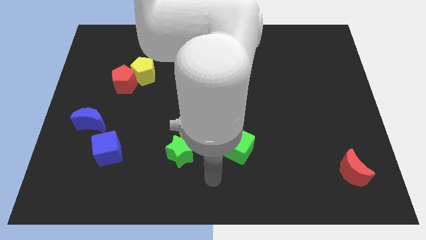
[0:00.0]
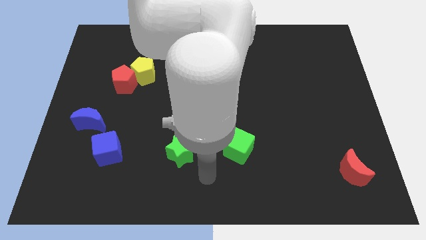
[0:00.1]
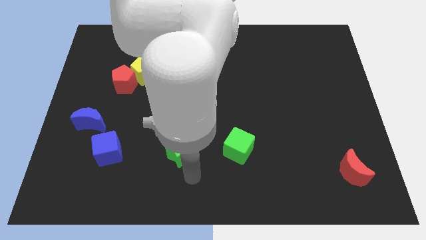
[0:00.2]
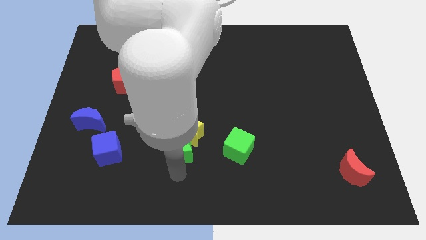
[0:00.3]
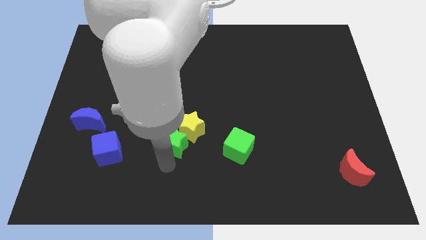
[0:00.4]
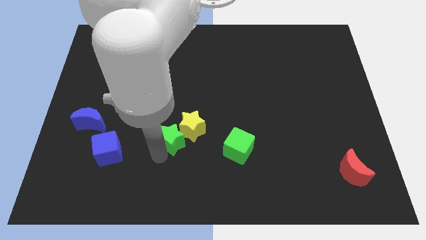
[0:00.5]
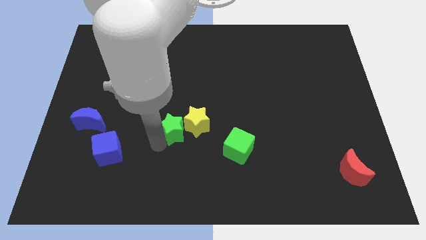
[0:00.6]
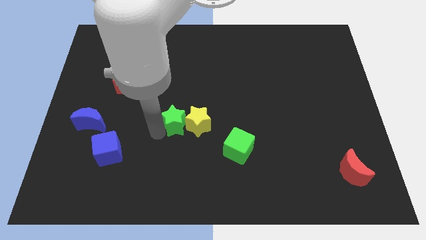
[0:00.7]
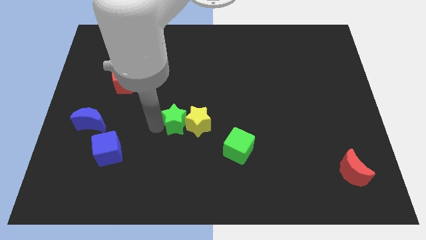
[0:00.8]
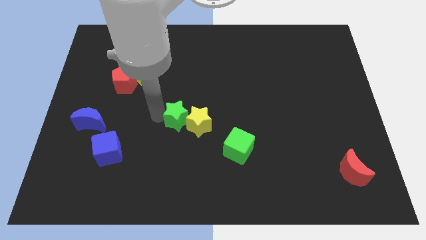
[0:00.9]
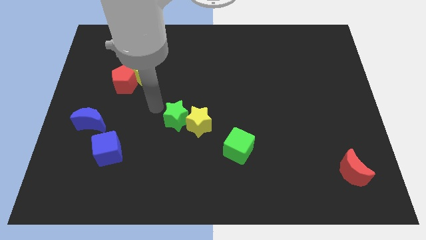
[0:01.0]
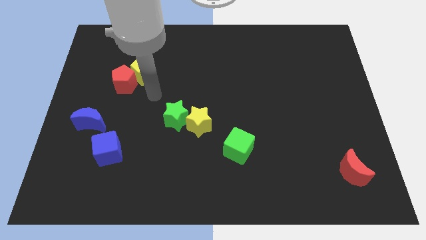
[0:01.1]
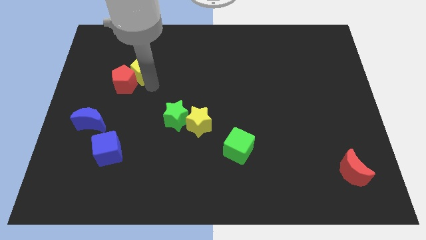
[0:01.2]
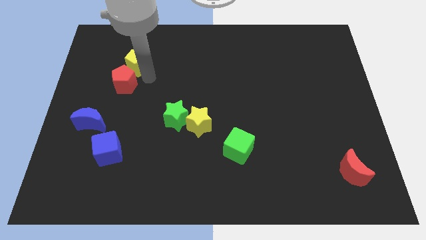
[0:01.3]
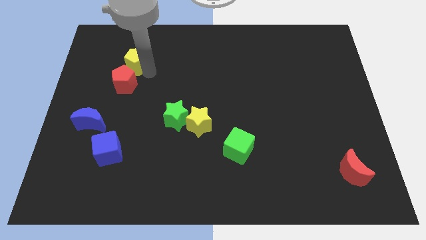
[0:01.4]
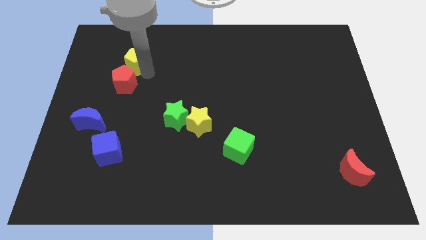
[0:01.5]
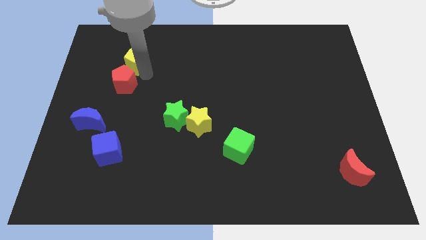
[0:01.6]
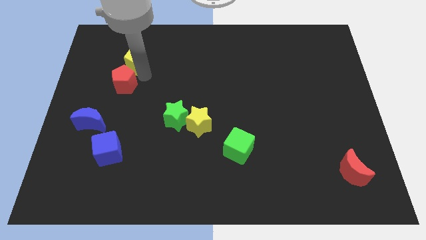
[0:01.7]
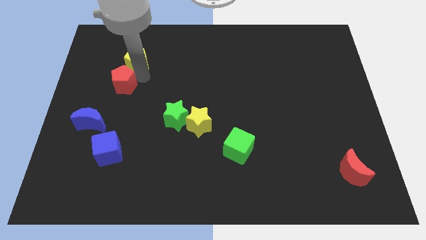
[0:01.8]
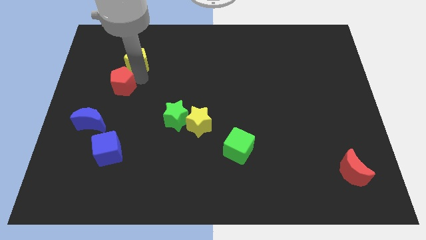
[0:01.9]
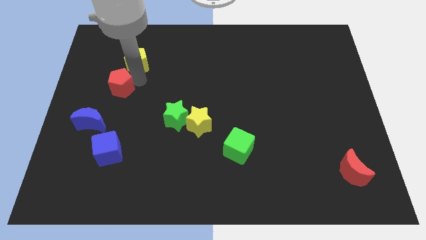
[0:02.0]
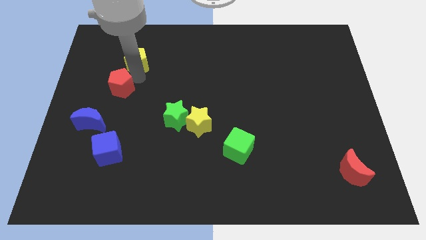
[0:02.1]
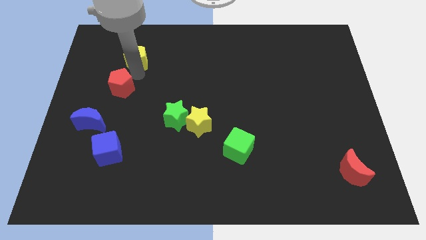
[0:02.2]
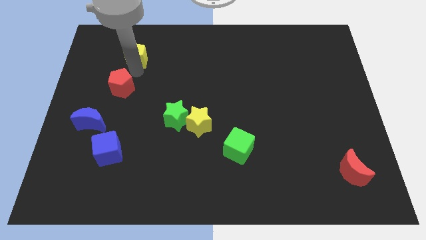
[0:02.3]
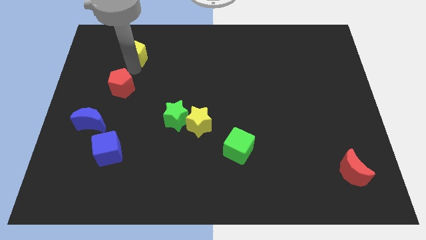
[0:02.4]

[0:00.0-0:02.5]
move the red pentagon away from the yellow pentagon

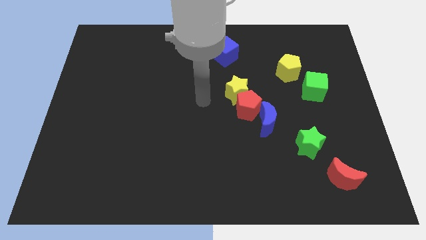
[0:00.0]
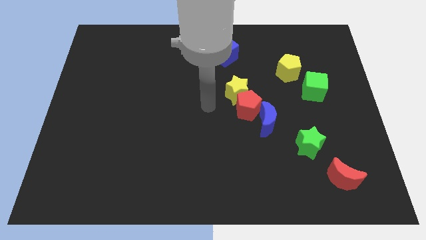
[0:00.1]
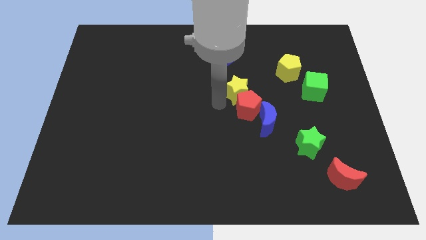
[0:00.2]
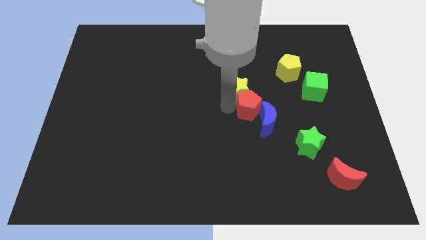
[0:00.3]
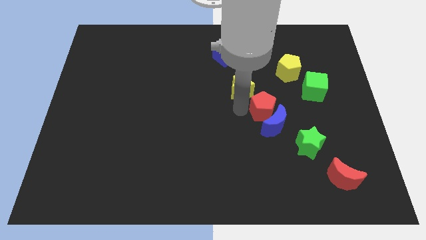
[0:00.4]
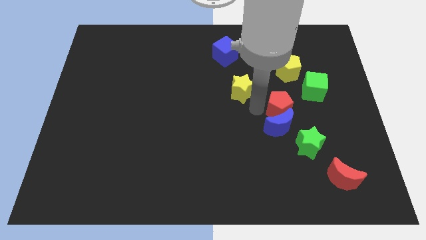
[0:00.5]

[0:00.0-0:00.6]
move the yellow star away from the red pentagon

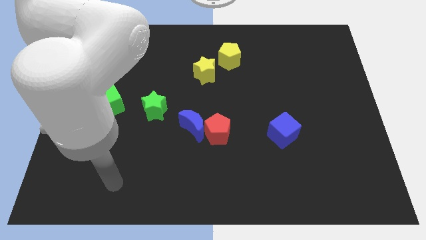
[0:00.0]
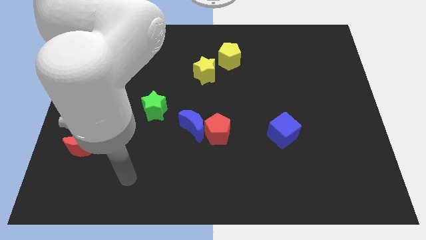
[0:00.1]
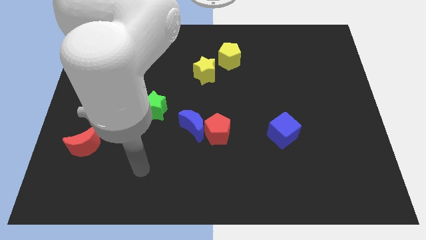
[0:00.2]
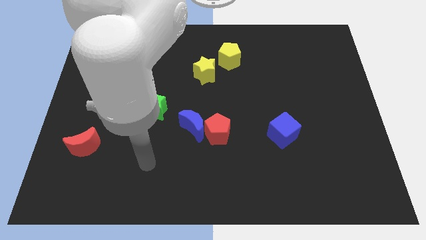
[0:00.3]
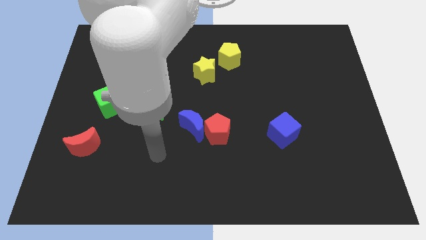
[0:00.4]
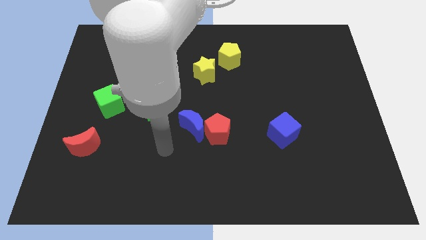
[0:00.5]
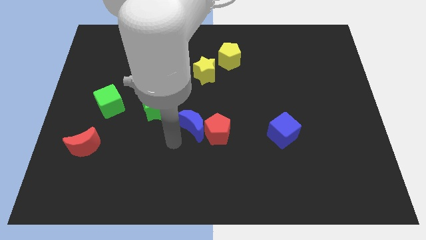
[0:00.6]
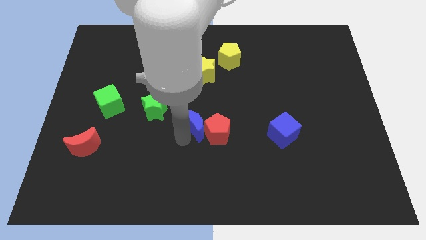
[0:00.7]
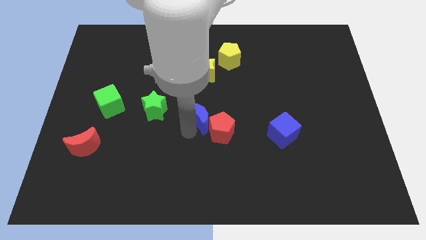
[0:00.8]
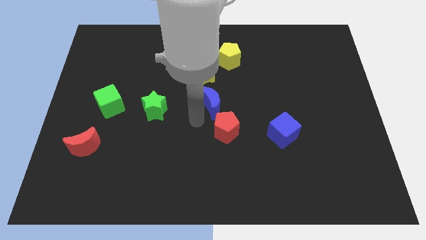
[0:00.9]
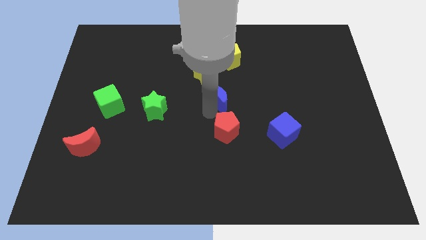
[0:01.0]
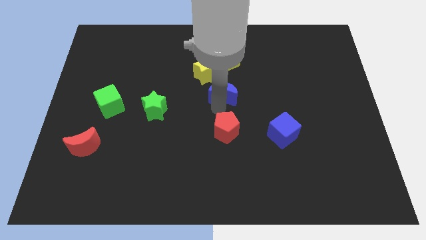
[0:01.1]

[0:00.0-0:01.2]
move the red pentagon away from the blue moon

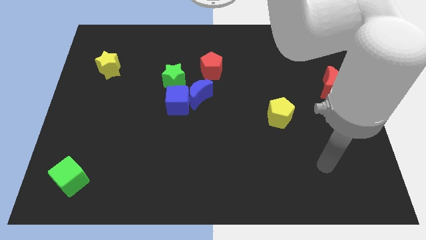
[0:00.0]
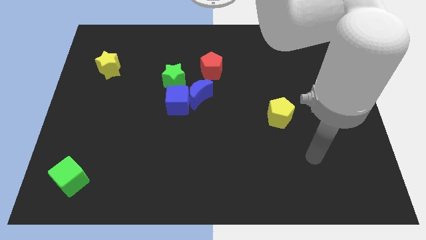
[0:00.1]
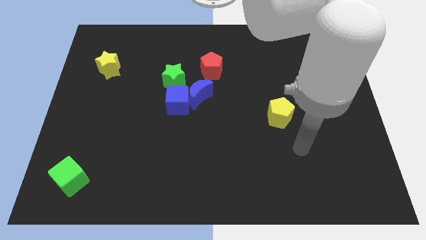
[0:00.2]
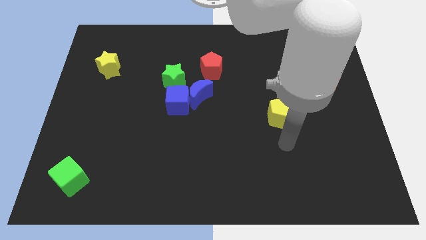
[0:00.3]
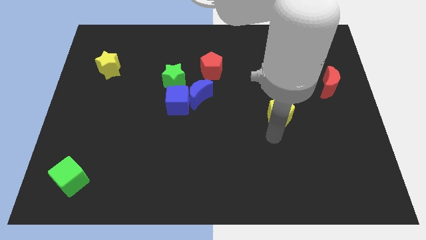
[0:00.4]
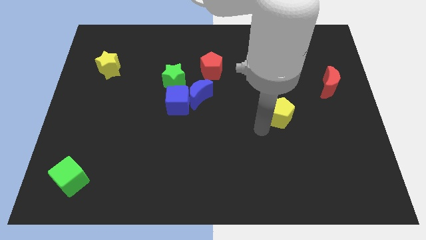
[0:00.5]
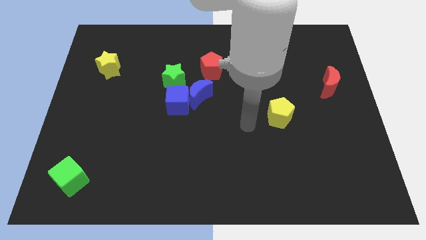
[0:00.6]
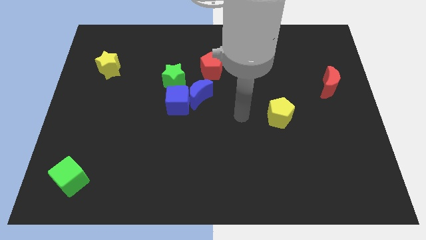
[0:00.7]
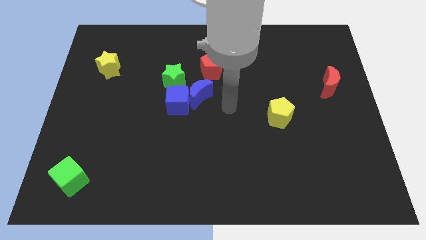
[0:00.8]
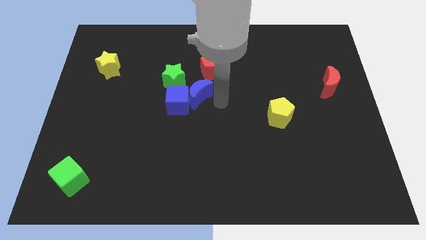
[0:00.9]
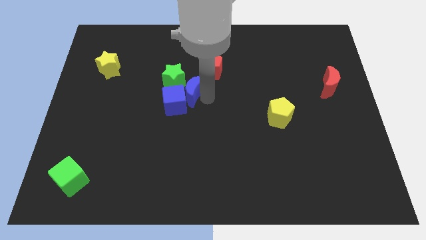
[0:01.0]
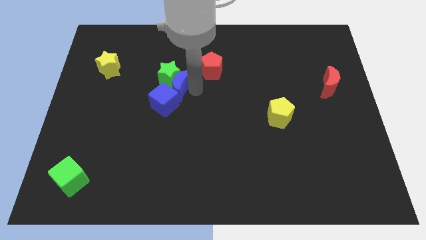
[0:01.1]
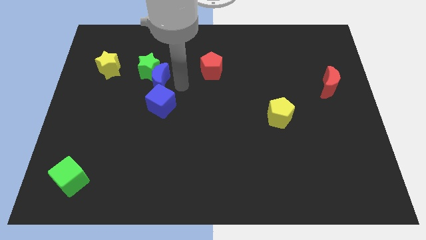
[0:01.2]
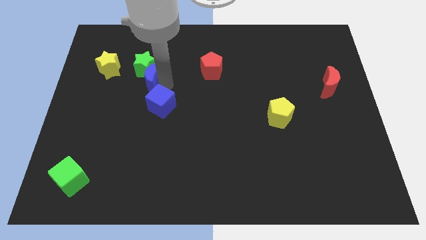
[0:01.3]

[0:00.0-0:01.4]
pull the blue cube apart from the blue moon and green star

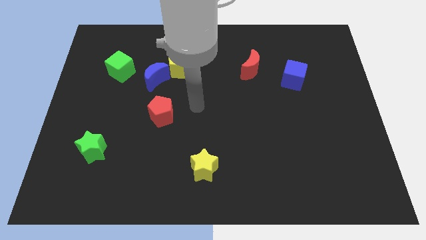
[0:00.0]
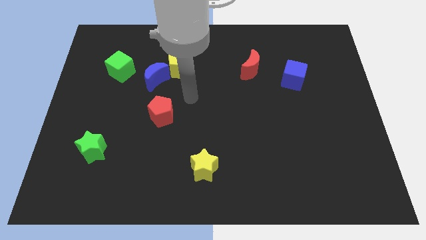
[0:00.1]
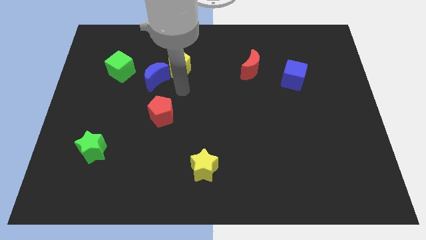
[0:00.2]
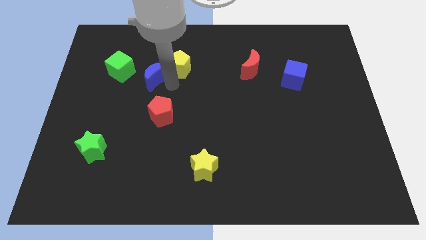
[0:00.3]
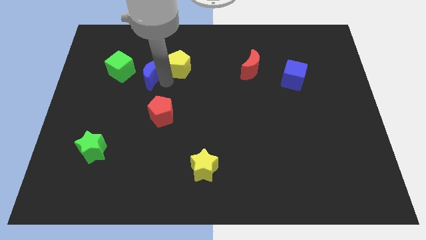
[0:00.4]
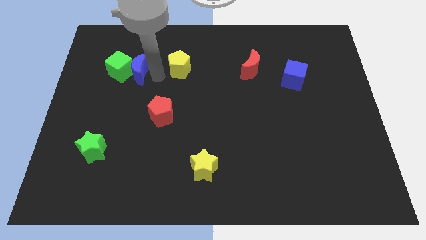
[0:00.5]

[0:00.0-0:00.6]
move the yellow pentagon away from the blue moon

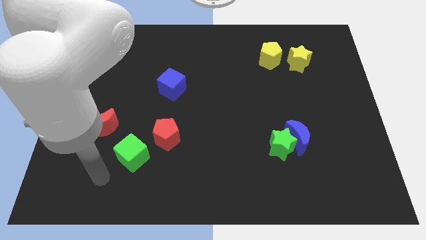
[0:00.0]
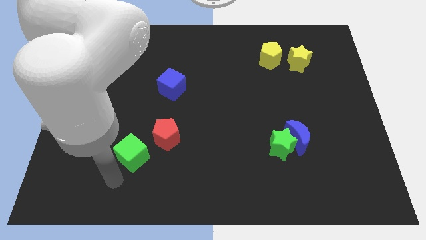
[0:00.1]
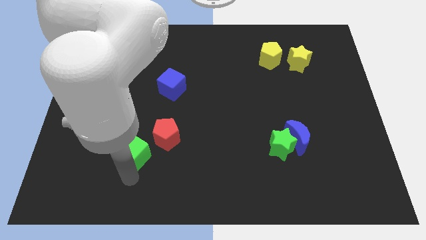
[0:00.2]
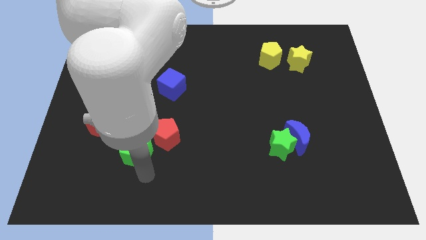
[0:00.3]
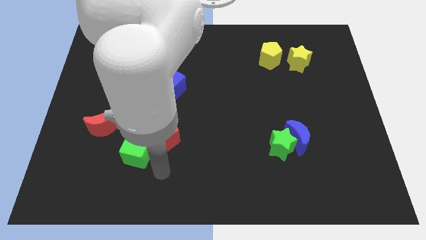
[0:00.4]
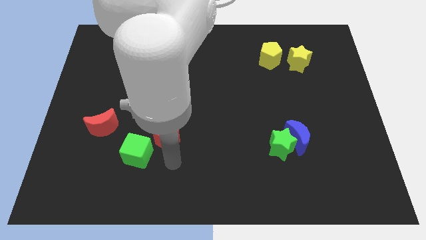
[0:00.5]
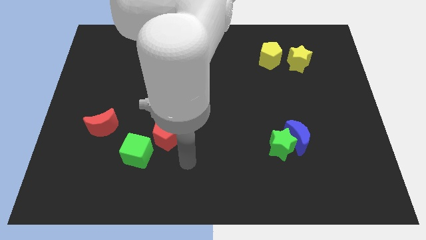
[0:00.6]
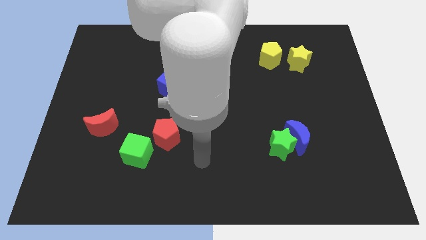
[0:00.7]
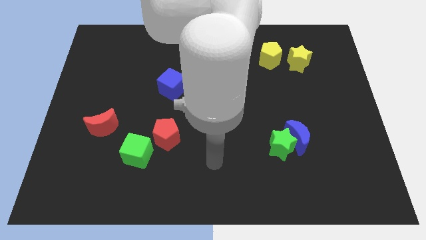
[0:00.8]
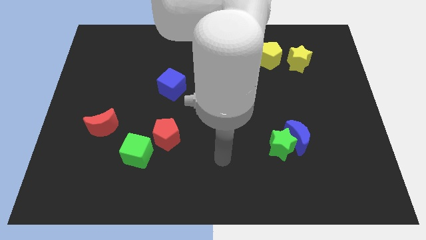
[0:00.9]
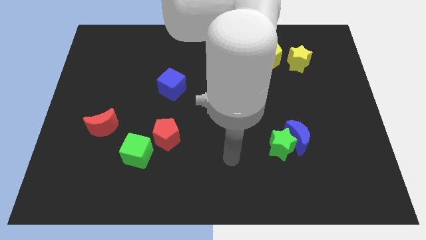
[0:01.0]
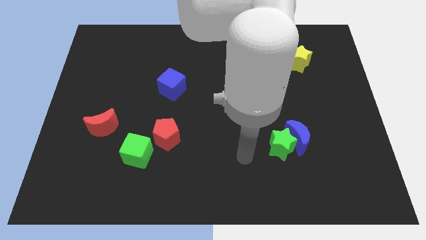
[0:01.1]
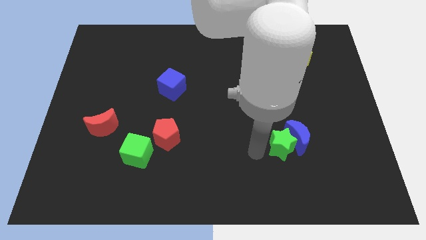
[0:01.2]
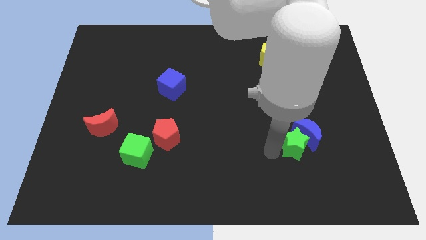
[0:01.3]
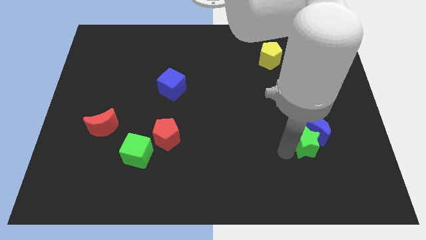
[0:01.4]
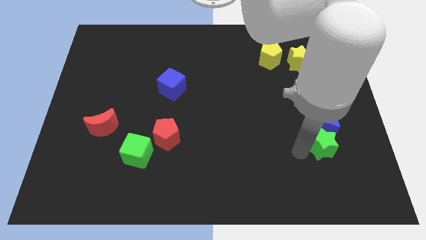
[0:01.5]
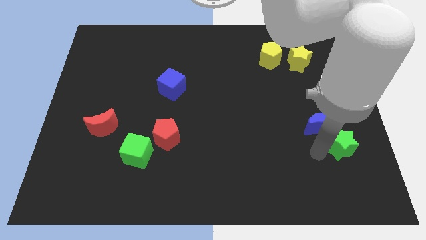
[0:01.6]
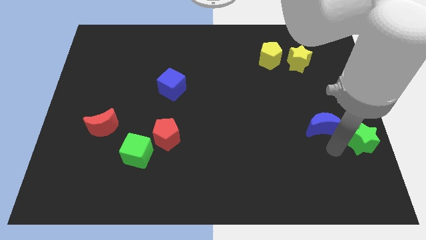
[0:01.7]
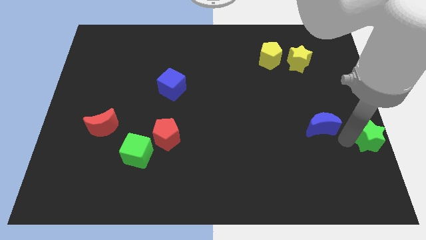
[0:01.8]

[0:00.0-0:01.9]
separate the blue moon from the green star

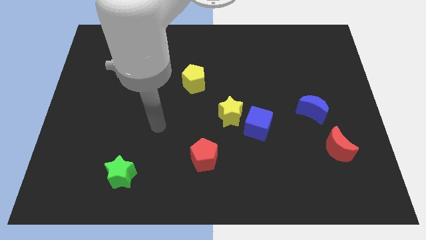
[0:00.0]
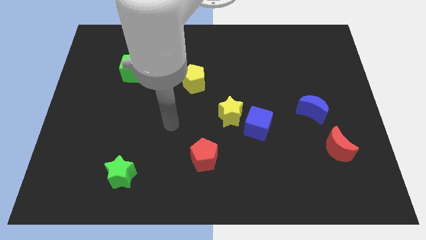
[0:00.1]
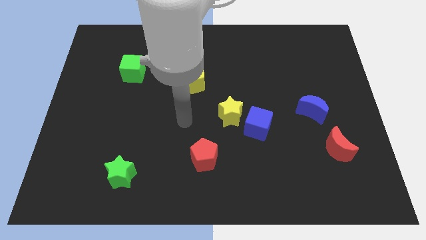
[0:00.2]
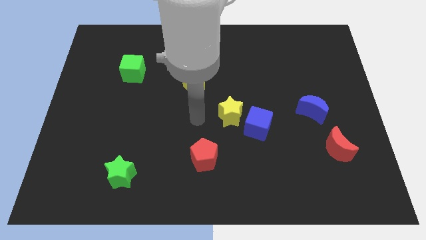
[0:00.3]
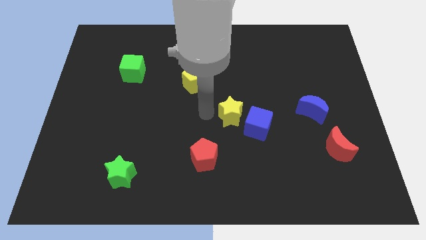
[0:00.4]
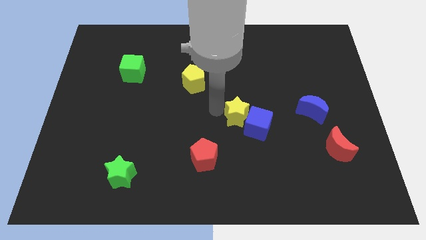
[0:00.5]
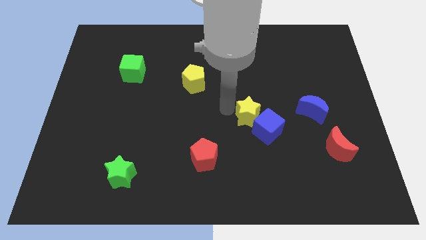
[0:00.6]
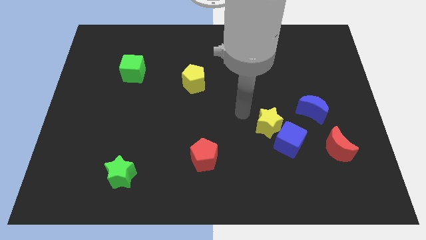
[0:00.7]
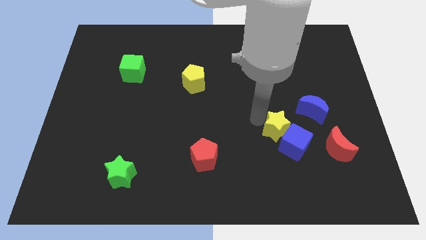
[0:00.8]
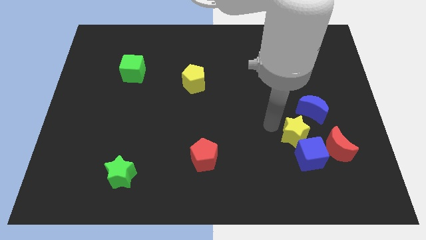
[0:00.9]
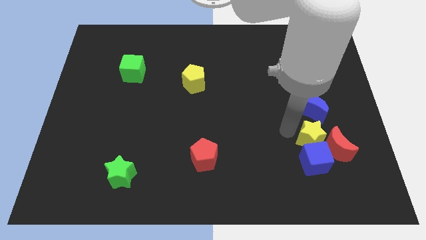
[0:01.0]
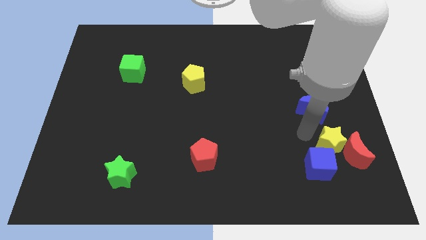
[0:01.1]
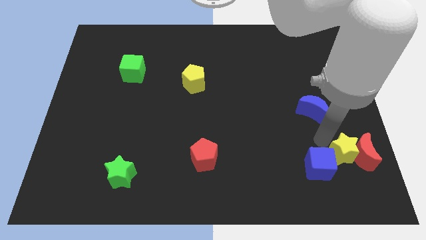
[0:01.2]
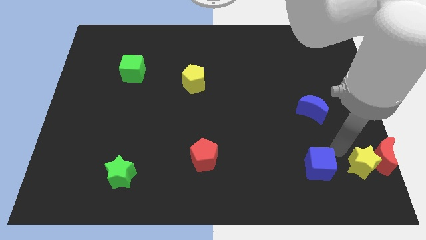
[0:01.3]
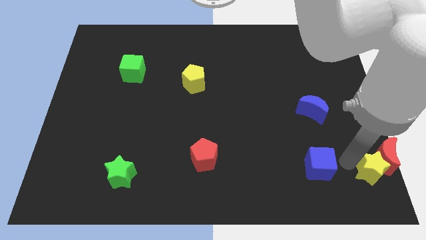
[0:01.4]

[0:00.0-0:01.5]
separate the blue cube from the yellow star
